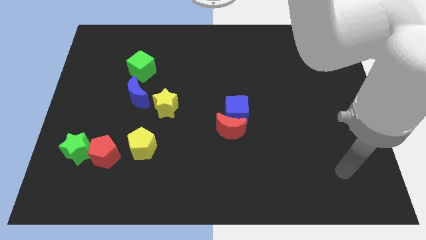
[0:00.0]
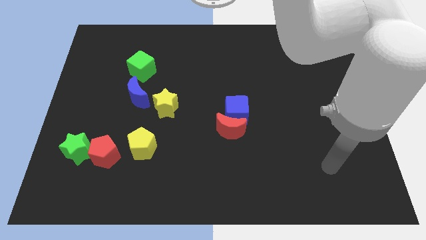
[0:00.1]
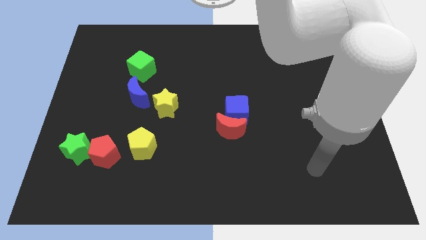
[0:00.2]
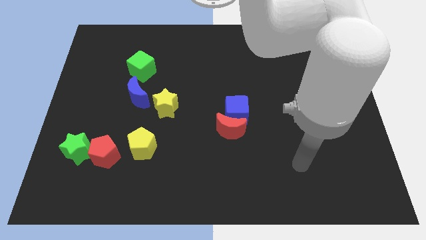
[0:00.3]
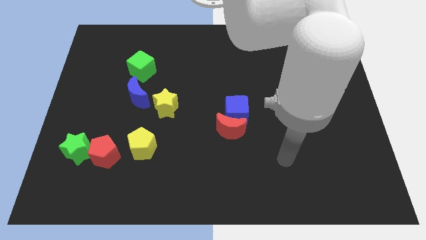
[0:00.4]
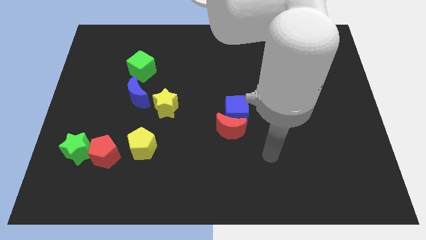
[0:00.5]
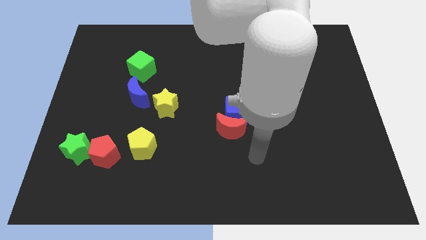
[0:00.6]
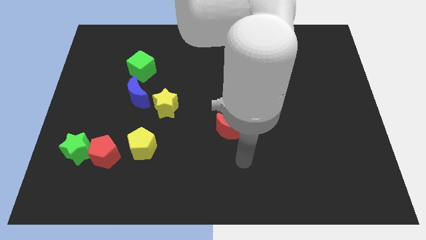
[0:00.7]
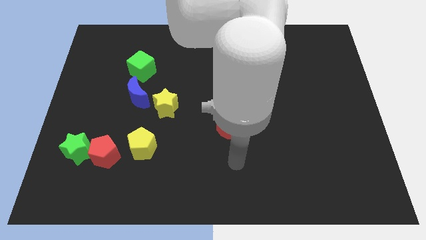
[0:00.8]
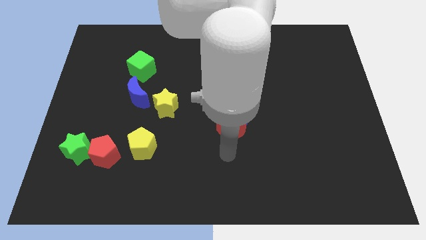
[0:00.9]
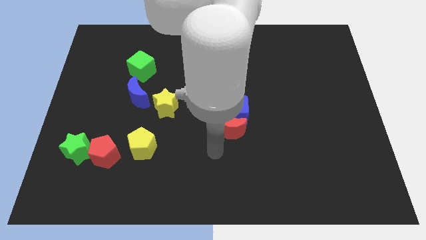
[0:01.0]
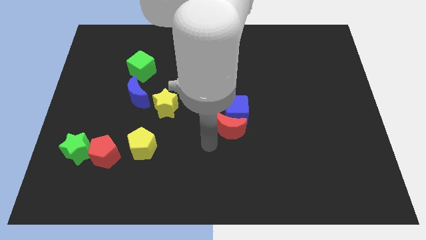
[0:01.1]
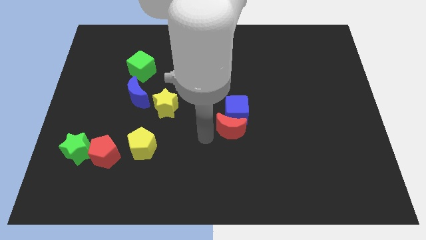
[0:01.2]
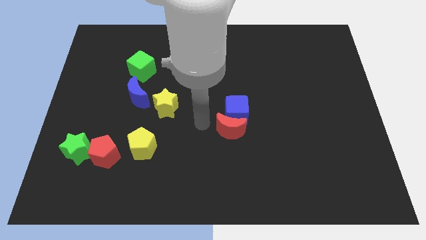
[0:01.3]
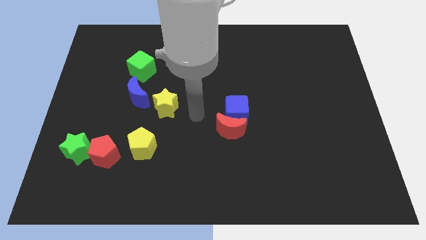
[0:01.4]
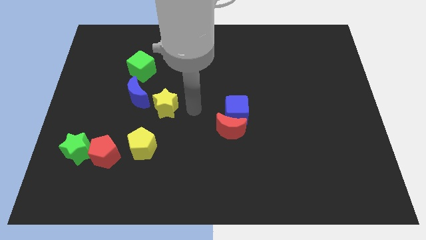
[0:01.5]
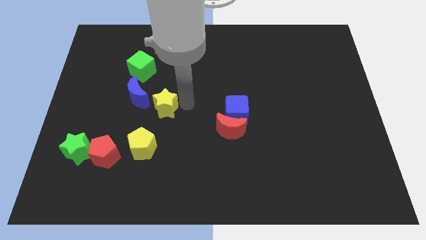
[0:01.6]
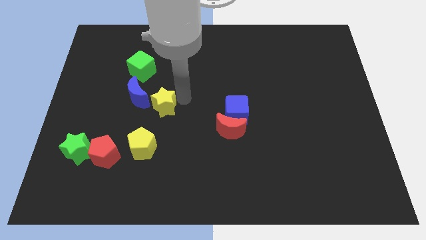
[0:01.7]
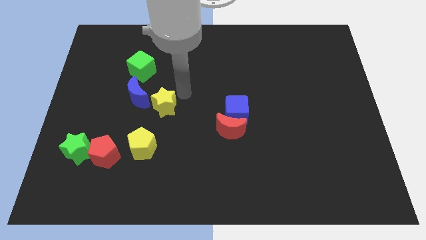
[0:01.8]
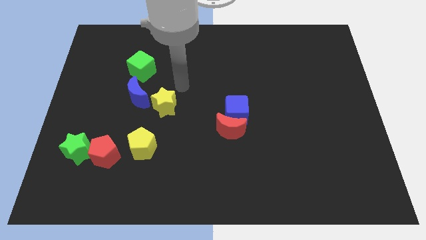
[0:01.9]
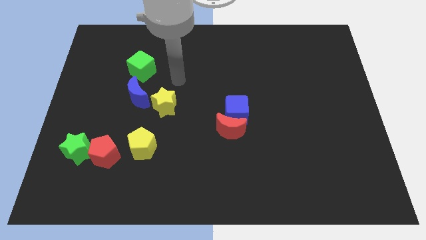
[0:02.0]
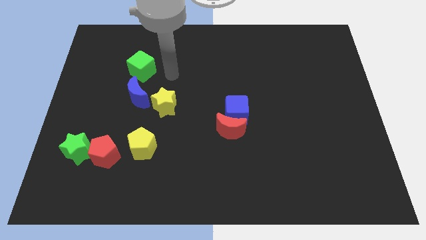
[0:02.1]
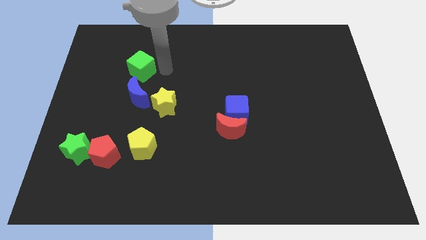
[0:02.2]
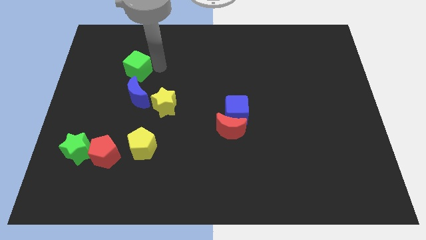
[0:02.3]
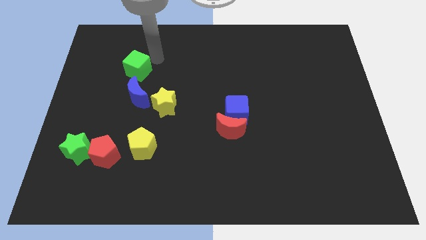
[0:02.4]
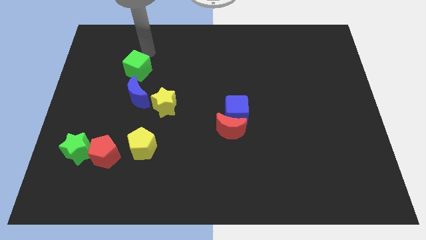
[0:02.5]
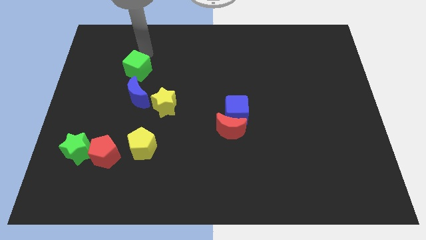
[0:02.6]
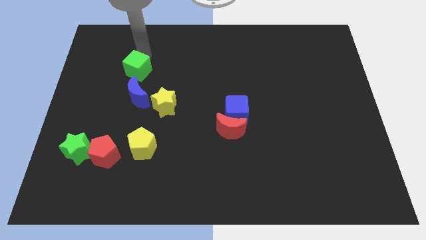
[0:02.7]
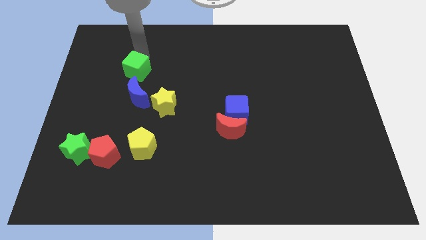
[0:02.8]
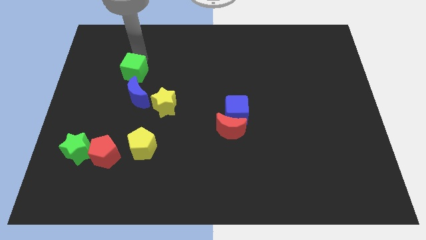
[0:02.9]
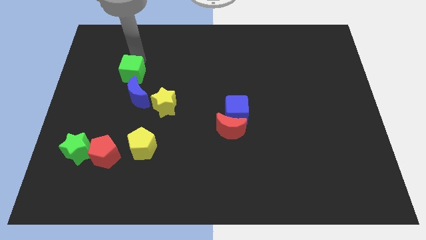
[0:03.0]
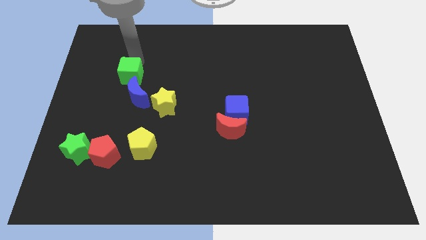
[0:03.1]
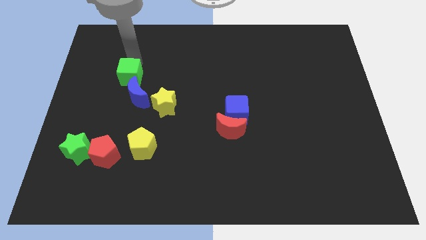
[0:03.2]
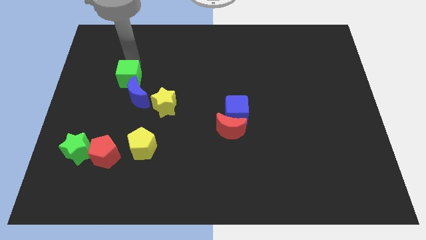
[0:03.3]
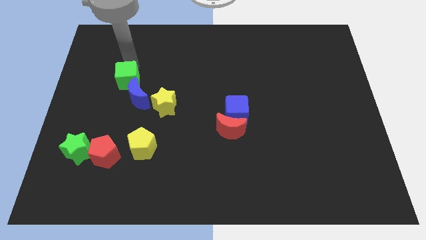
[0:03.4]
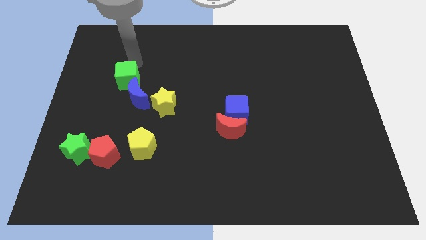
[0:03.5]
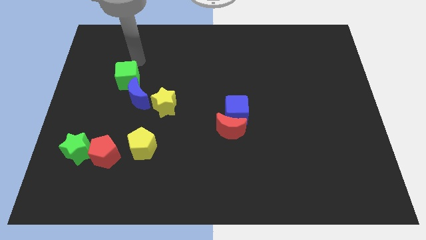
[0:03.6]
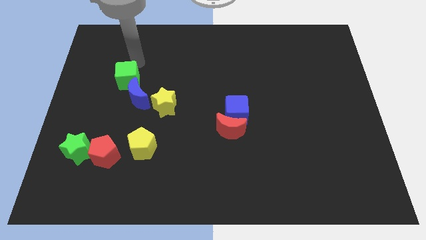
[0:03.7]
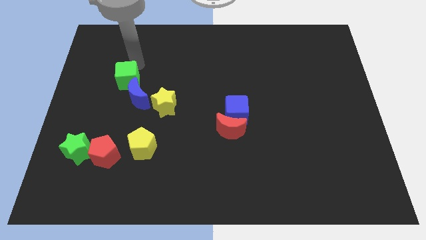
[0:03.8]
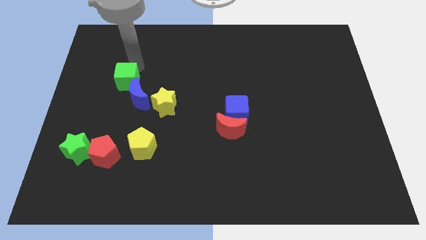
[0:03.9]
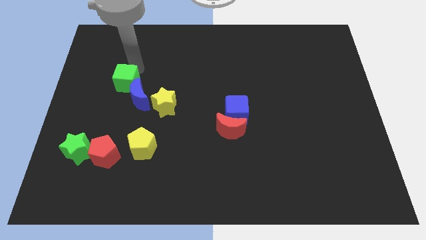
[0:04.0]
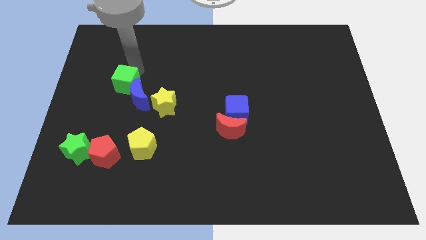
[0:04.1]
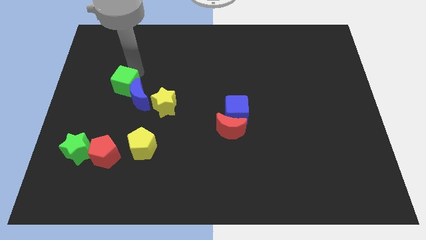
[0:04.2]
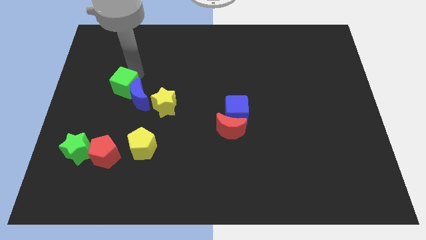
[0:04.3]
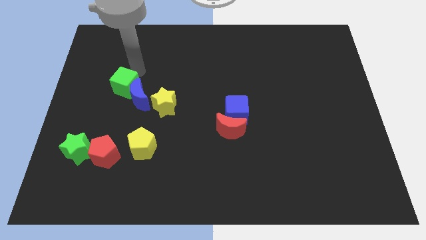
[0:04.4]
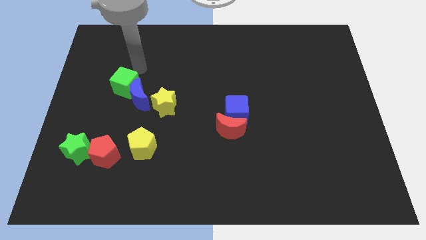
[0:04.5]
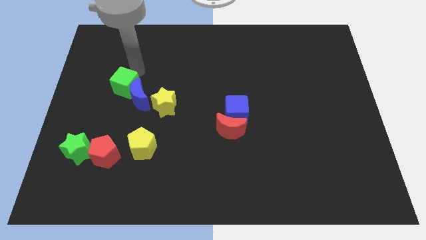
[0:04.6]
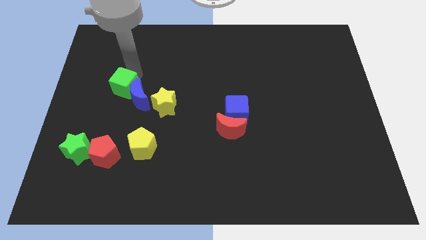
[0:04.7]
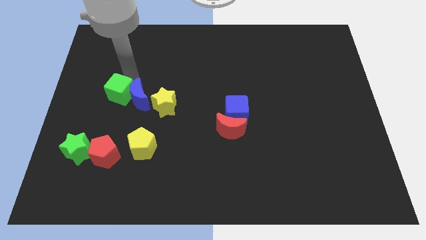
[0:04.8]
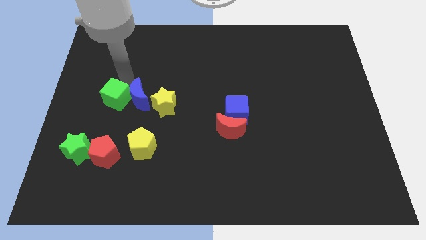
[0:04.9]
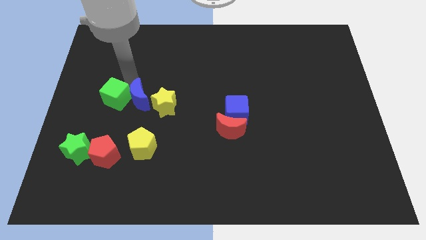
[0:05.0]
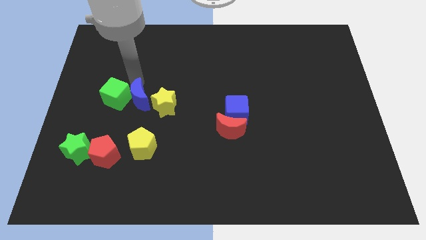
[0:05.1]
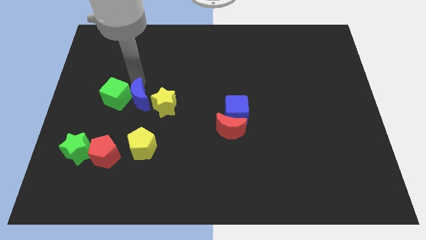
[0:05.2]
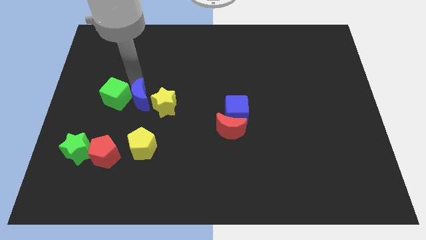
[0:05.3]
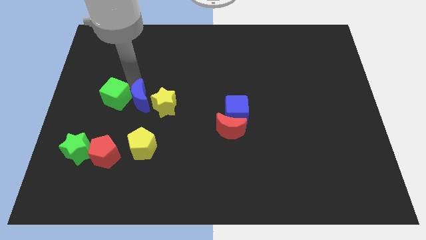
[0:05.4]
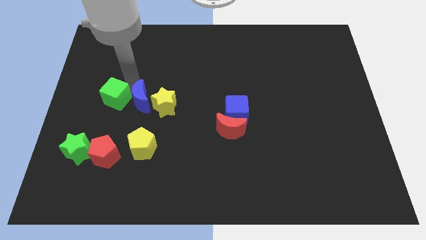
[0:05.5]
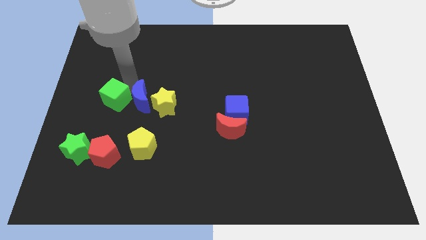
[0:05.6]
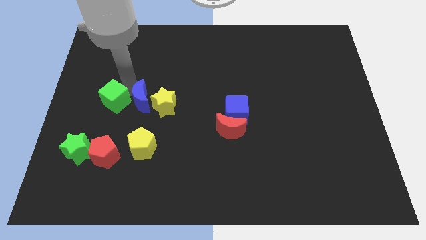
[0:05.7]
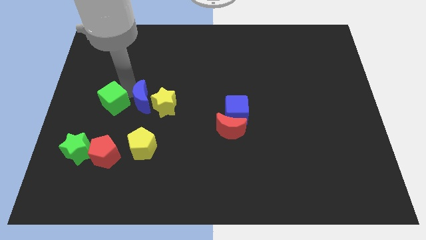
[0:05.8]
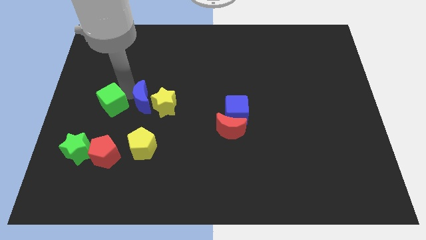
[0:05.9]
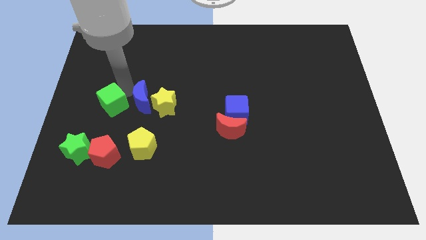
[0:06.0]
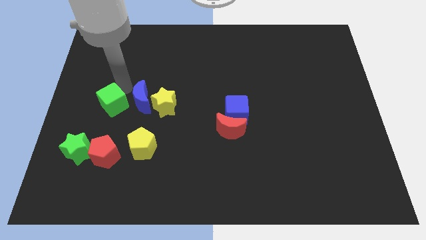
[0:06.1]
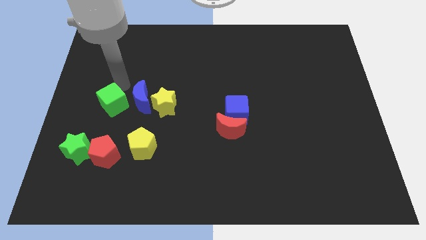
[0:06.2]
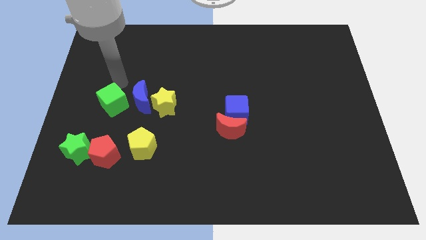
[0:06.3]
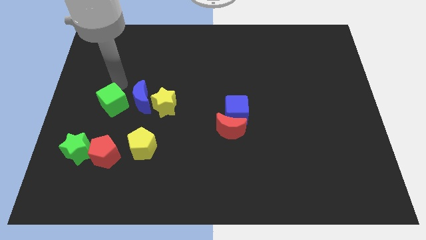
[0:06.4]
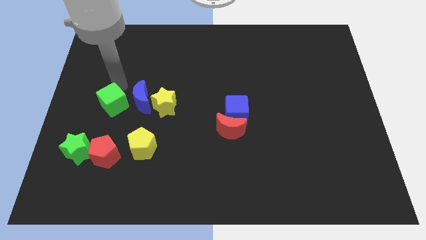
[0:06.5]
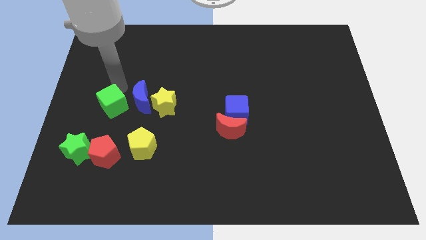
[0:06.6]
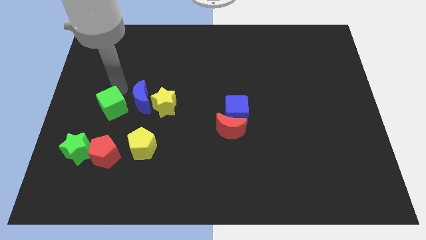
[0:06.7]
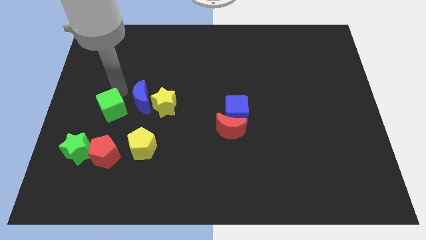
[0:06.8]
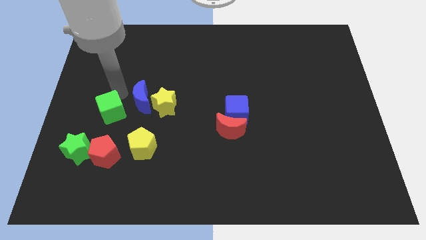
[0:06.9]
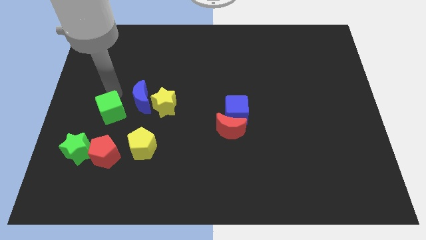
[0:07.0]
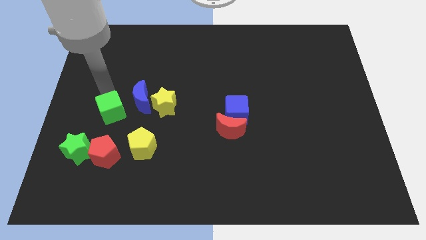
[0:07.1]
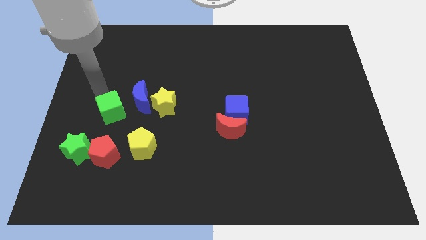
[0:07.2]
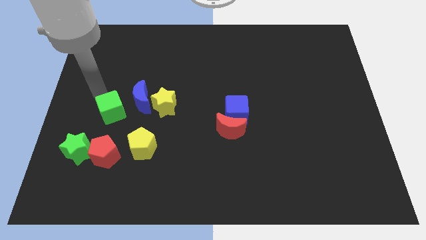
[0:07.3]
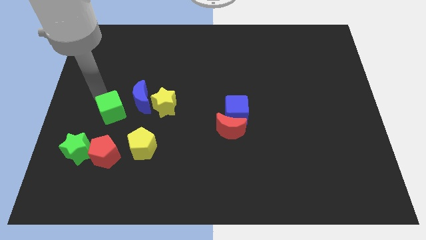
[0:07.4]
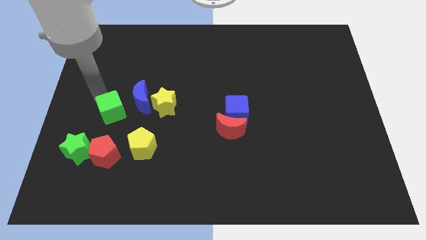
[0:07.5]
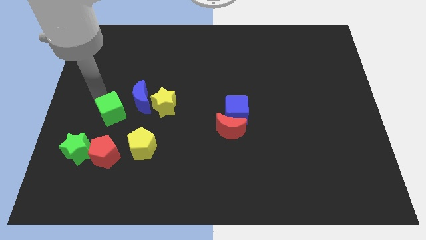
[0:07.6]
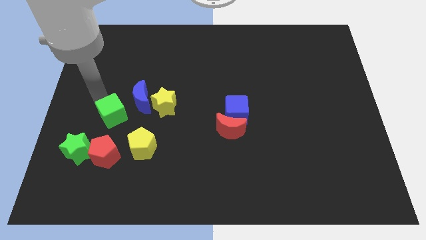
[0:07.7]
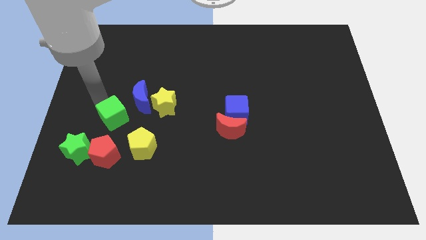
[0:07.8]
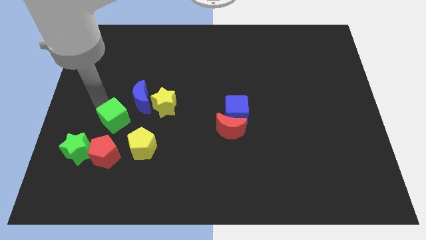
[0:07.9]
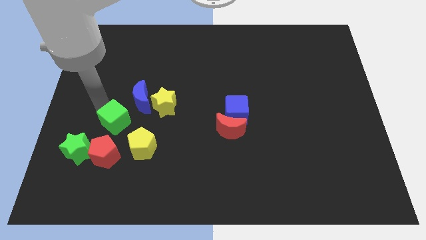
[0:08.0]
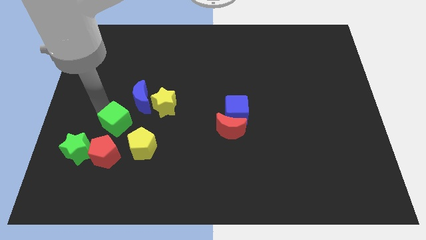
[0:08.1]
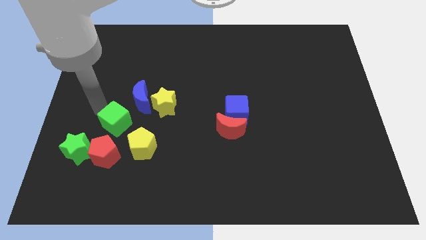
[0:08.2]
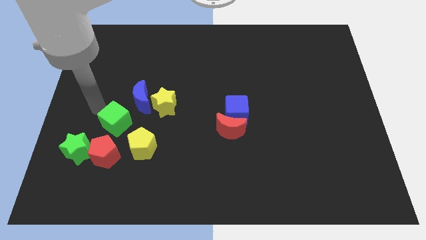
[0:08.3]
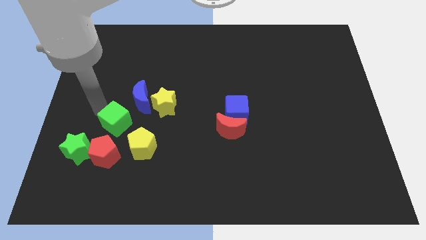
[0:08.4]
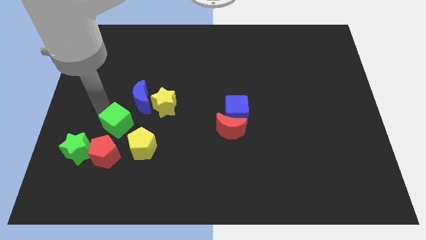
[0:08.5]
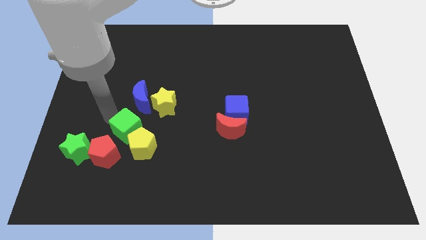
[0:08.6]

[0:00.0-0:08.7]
put the green cube next to the yellow pentagon
